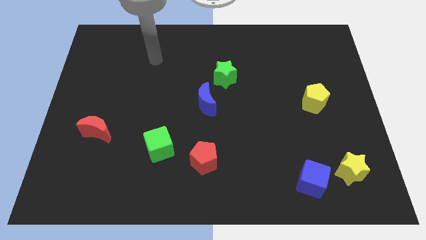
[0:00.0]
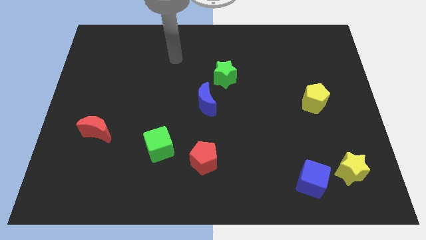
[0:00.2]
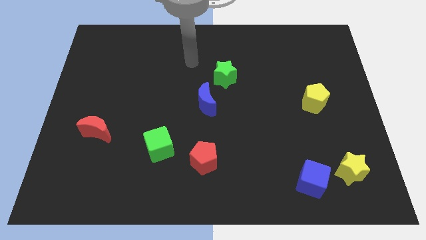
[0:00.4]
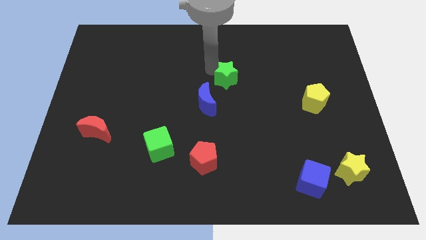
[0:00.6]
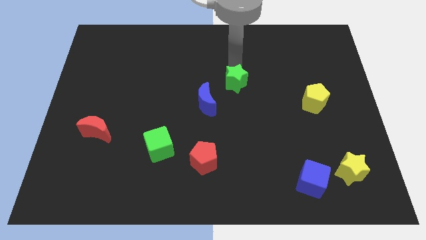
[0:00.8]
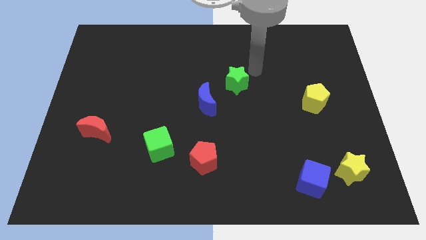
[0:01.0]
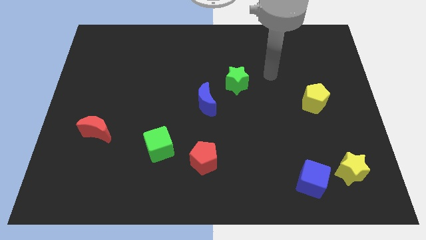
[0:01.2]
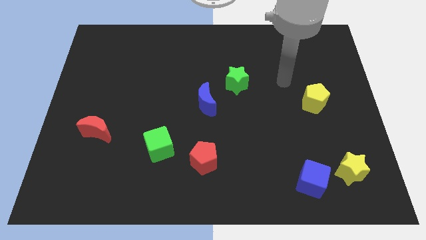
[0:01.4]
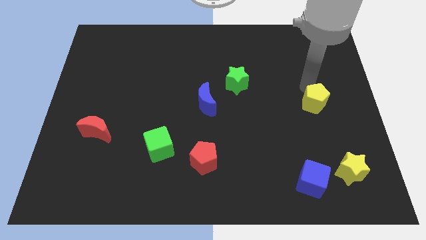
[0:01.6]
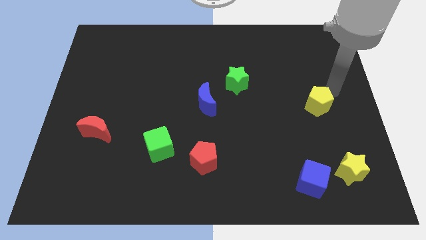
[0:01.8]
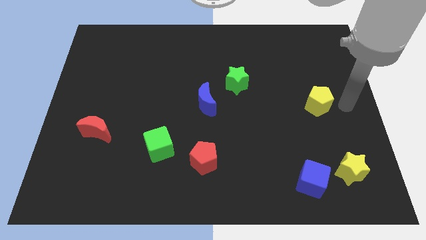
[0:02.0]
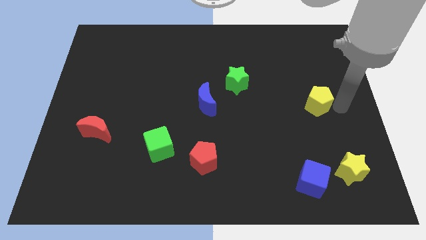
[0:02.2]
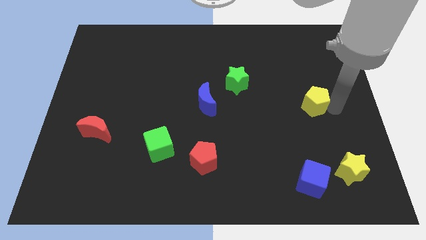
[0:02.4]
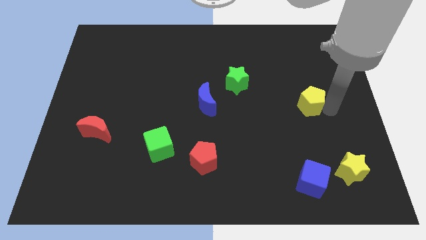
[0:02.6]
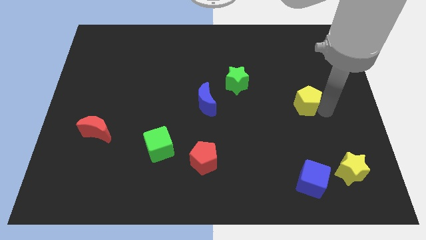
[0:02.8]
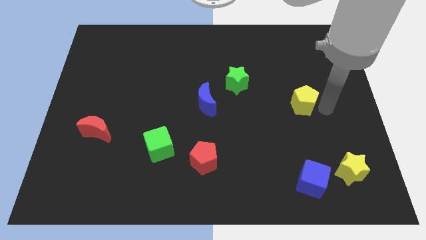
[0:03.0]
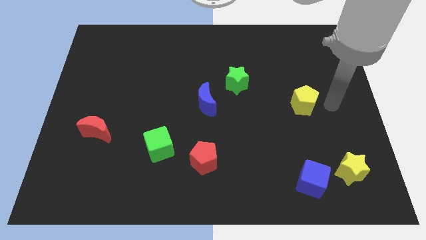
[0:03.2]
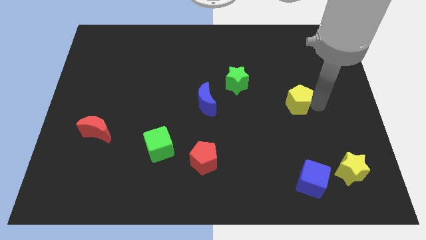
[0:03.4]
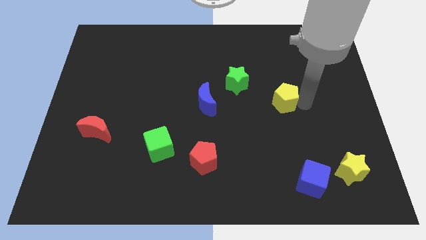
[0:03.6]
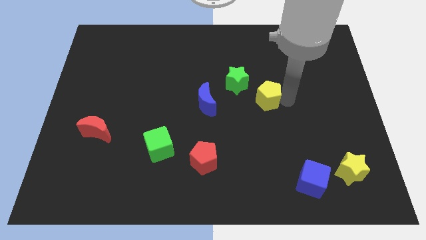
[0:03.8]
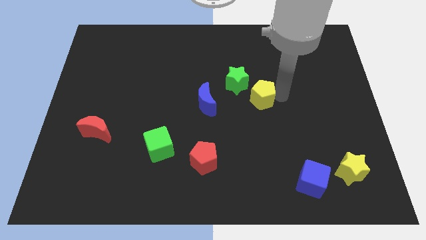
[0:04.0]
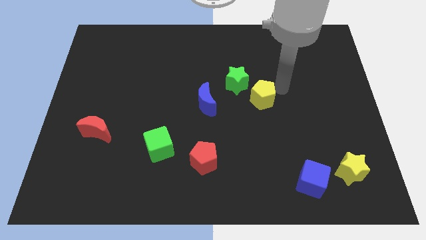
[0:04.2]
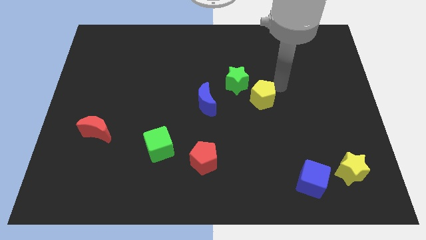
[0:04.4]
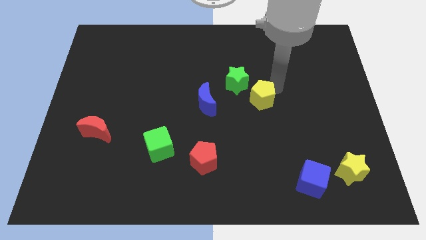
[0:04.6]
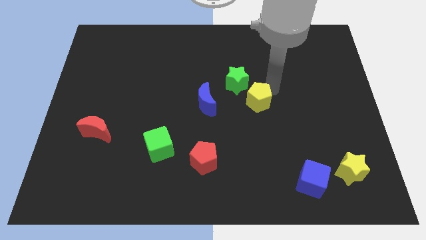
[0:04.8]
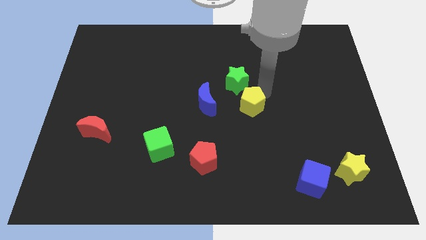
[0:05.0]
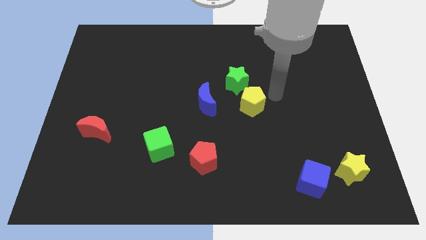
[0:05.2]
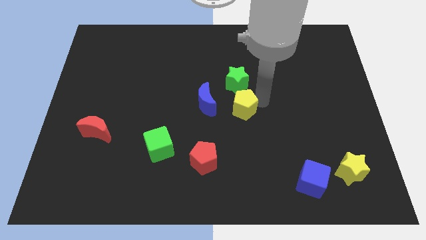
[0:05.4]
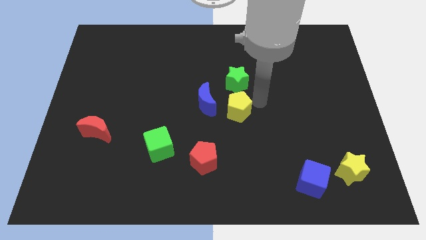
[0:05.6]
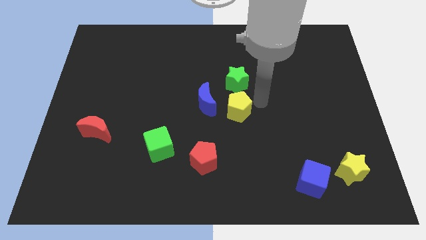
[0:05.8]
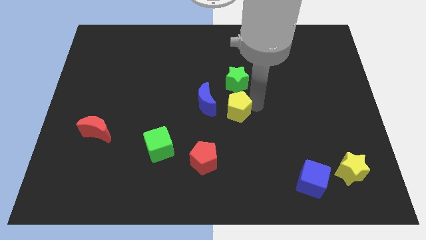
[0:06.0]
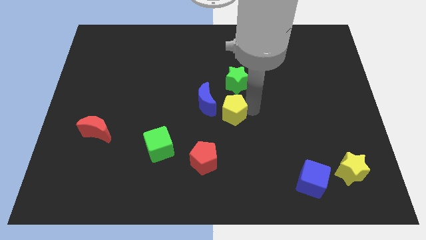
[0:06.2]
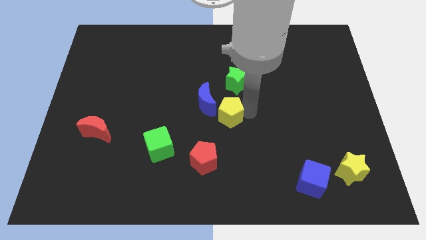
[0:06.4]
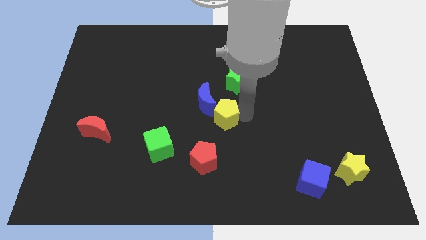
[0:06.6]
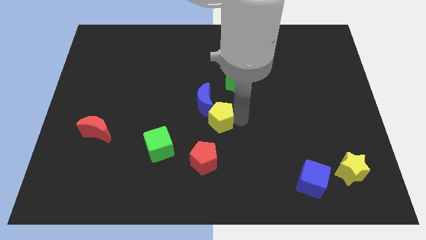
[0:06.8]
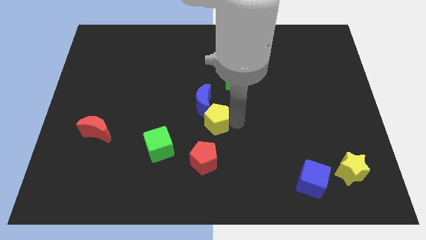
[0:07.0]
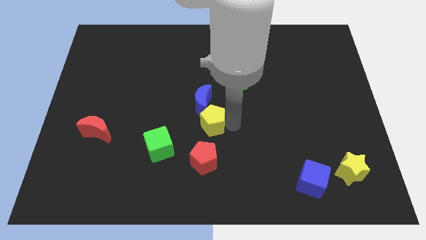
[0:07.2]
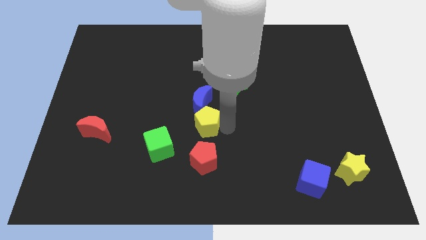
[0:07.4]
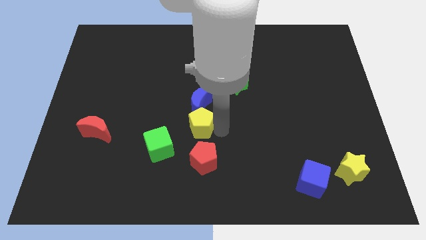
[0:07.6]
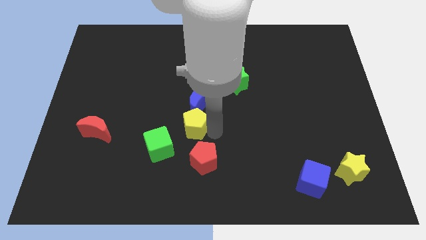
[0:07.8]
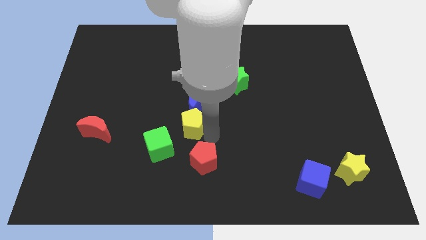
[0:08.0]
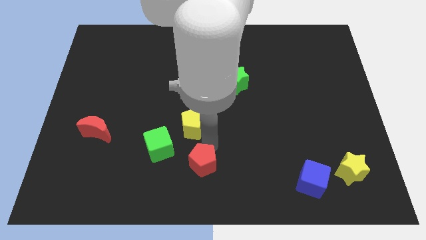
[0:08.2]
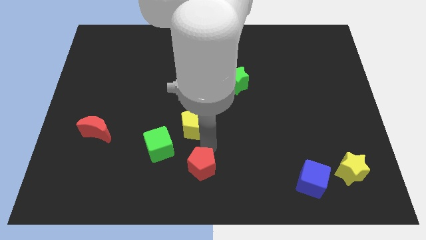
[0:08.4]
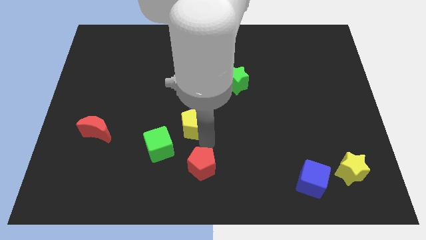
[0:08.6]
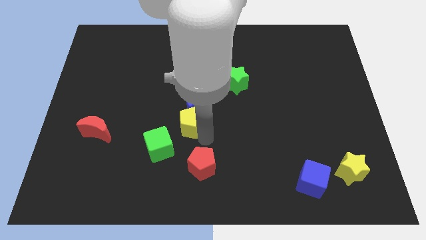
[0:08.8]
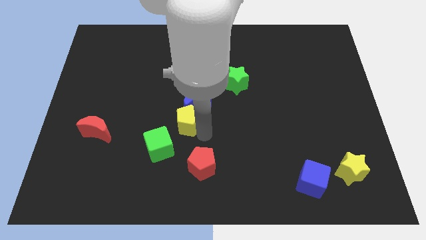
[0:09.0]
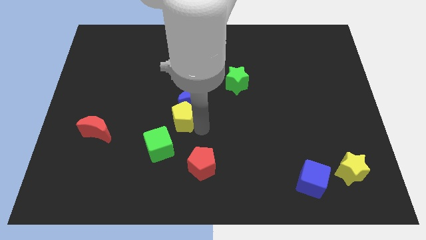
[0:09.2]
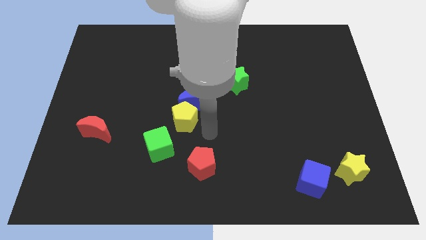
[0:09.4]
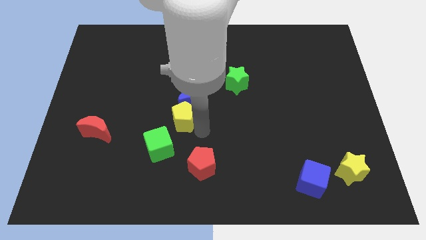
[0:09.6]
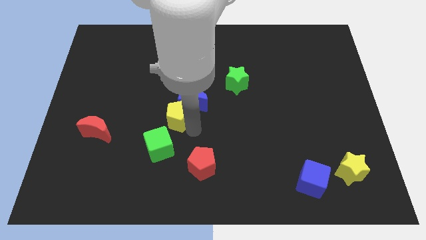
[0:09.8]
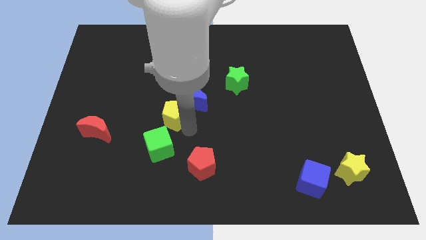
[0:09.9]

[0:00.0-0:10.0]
move the yellow pentagon to the left of the blue moon

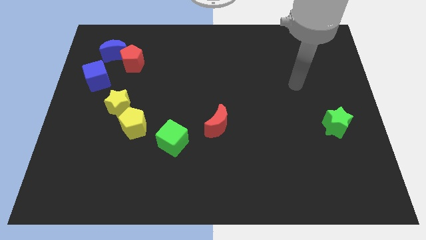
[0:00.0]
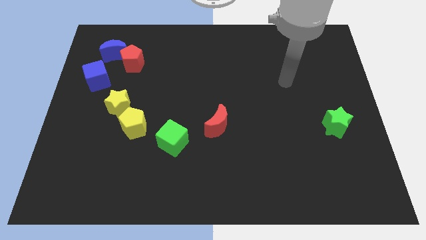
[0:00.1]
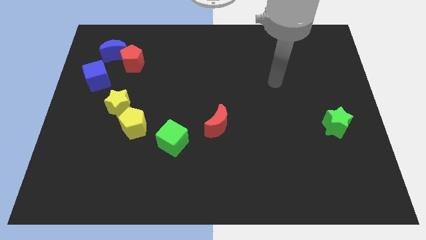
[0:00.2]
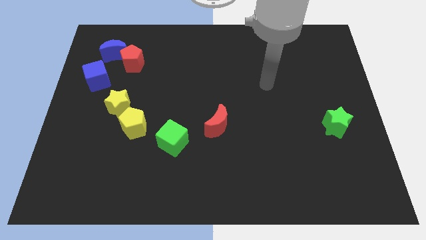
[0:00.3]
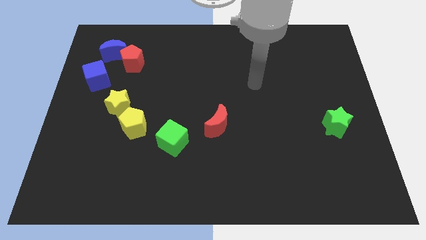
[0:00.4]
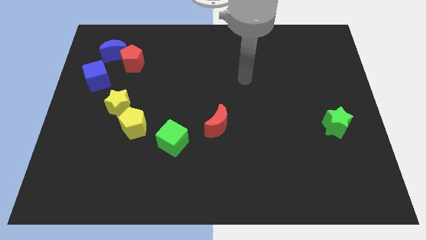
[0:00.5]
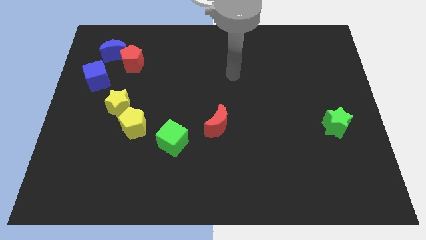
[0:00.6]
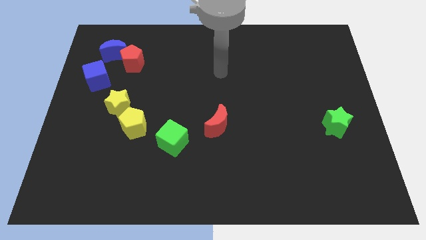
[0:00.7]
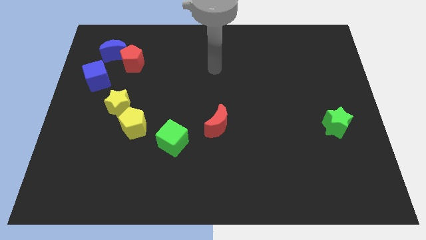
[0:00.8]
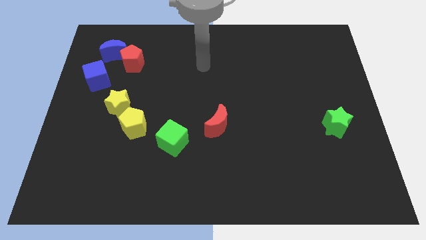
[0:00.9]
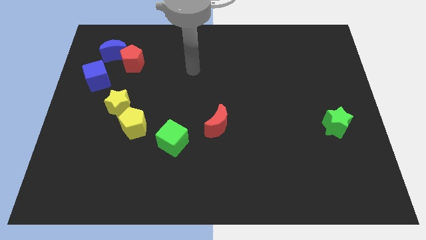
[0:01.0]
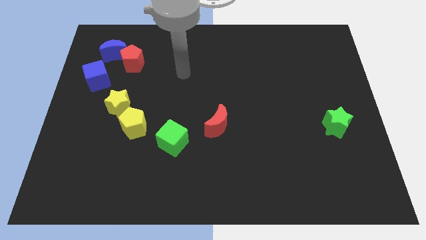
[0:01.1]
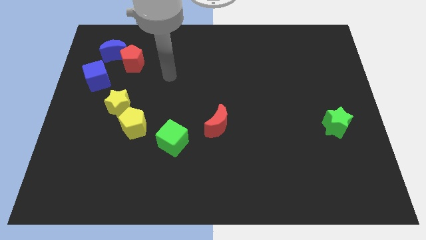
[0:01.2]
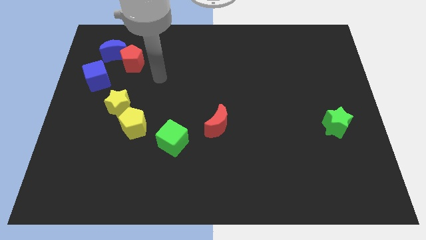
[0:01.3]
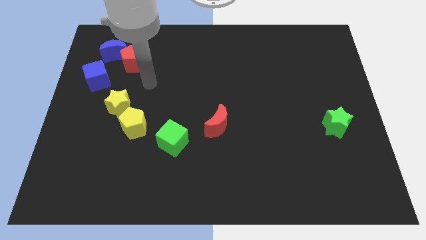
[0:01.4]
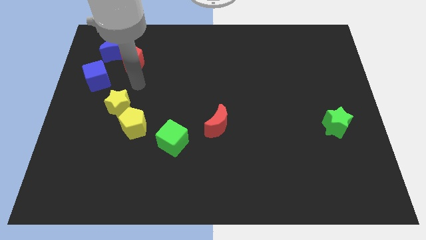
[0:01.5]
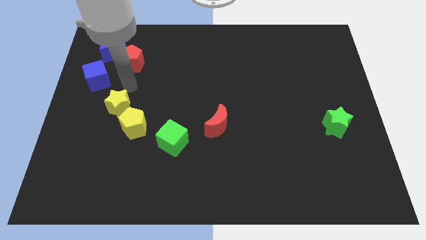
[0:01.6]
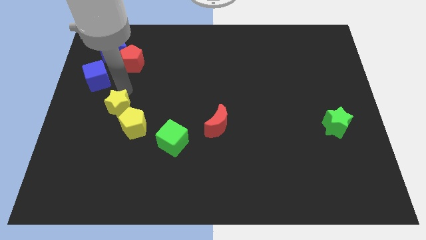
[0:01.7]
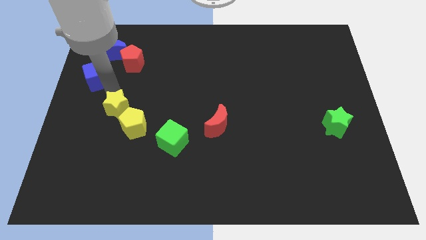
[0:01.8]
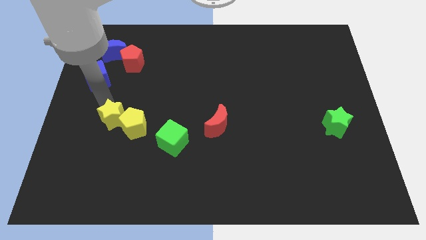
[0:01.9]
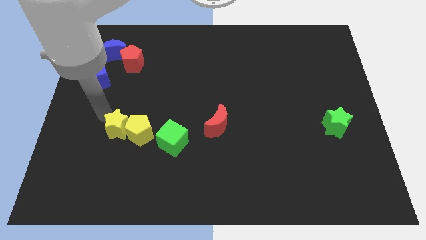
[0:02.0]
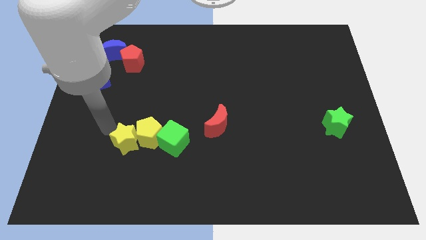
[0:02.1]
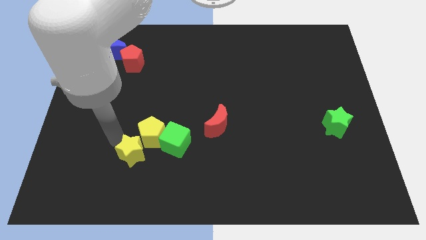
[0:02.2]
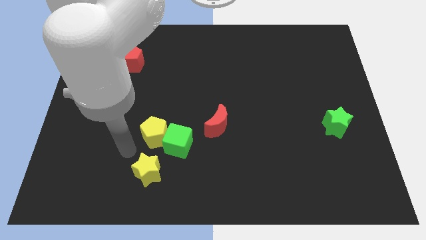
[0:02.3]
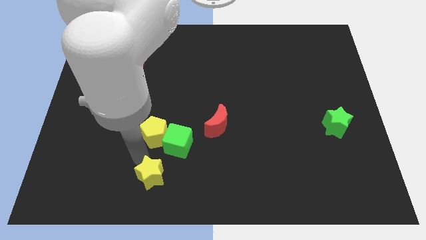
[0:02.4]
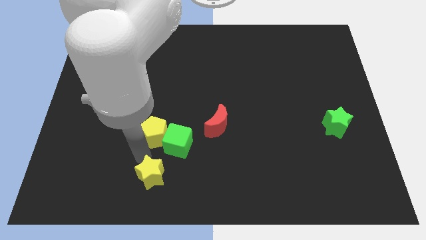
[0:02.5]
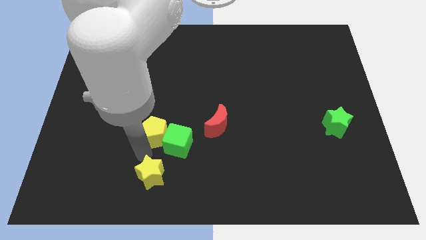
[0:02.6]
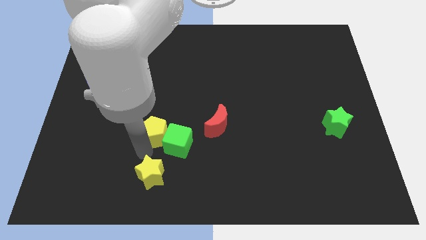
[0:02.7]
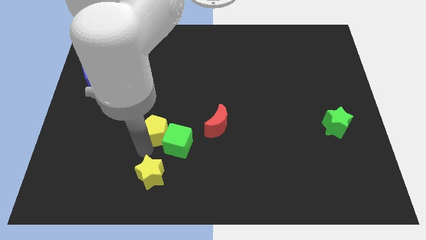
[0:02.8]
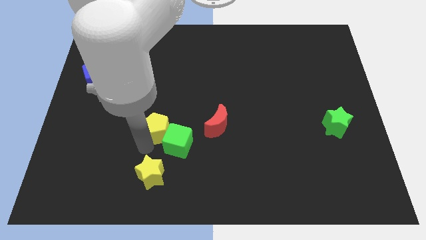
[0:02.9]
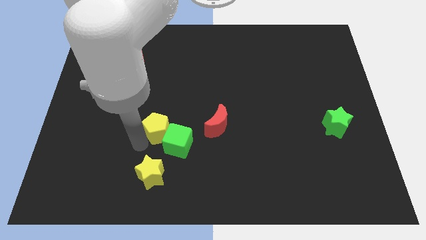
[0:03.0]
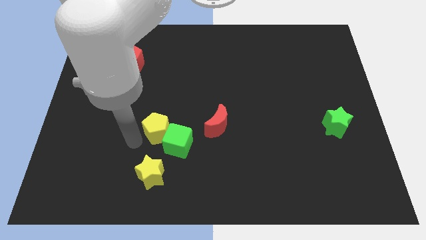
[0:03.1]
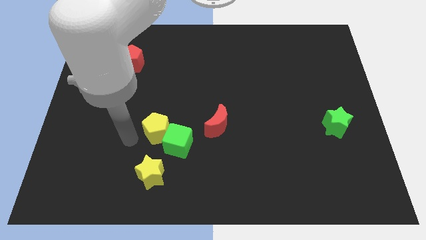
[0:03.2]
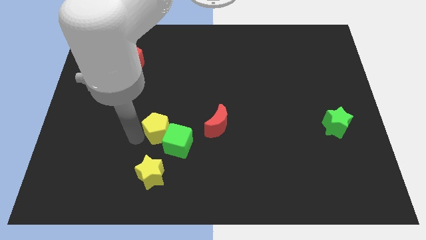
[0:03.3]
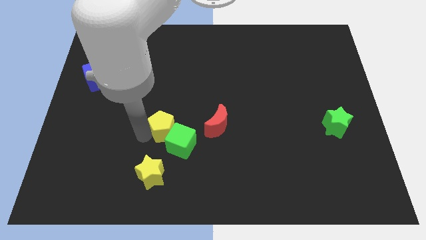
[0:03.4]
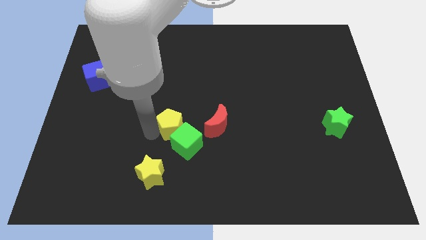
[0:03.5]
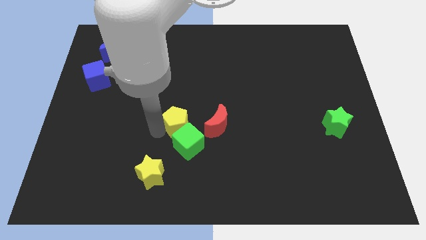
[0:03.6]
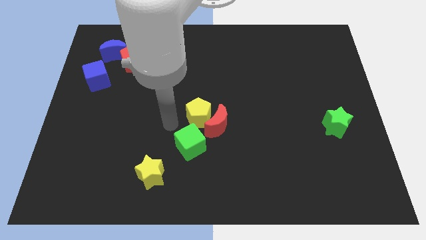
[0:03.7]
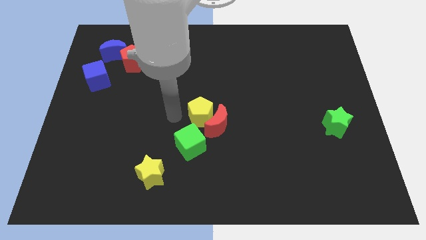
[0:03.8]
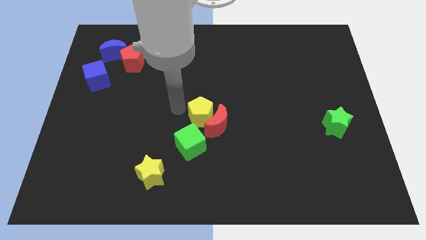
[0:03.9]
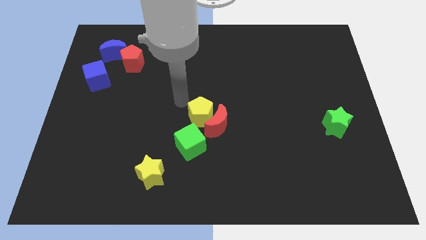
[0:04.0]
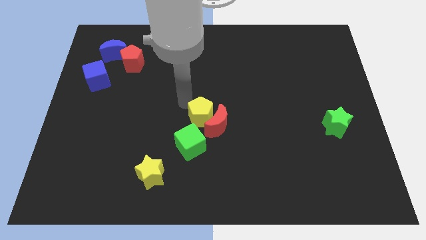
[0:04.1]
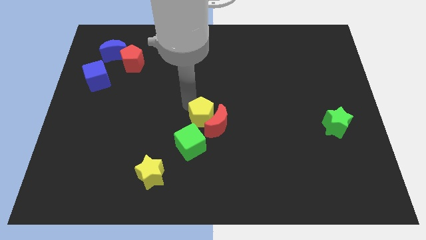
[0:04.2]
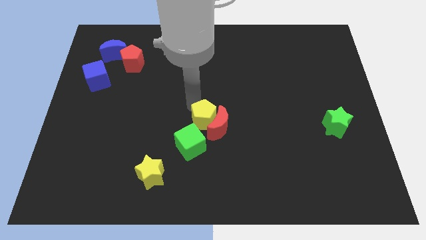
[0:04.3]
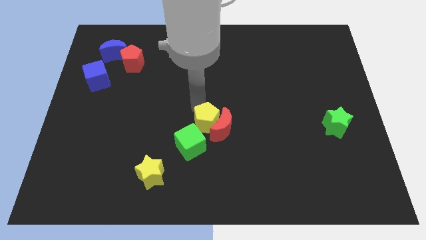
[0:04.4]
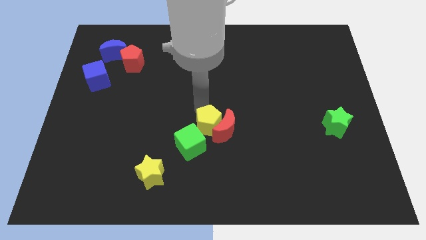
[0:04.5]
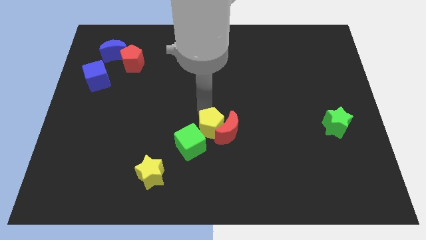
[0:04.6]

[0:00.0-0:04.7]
put the yellow pentagon to the right of the green cube
